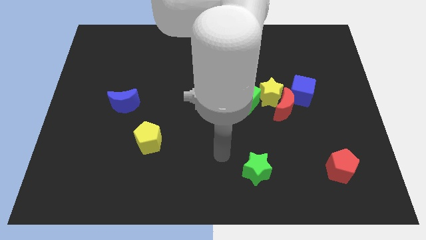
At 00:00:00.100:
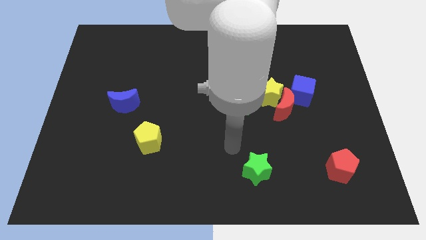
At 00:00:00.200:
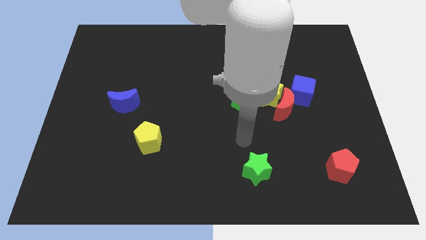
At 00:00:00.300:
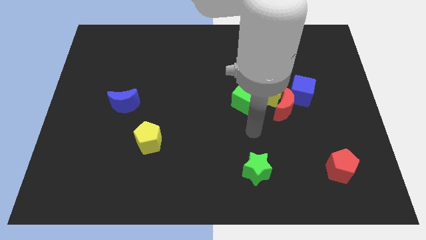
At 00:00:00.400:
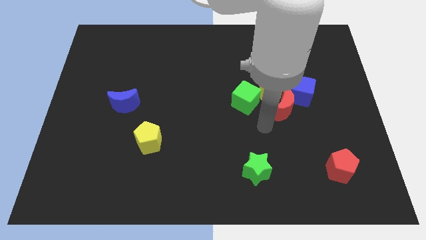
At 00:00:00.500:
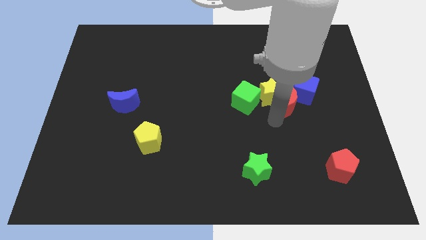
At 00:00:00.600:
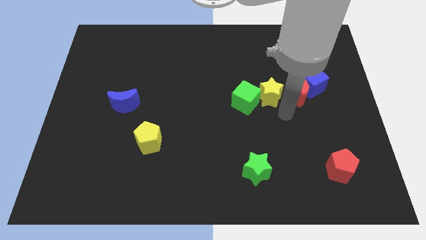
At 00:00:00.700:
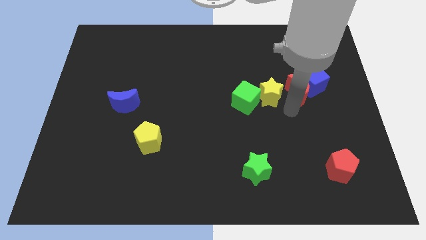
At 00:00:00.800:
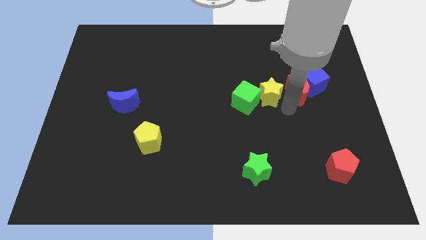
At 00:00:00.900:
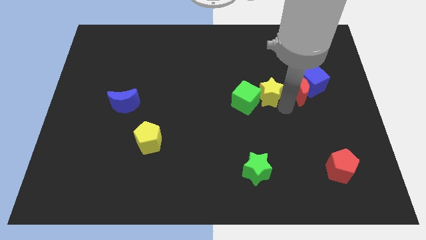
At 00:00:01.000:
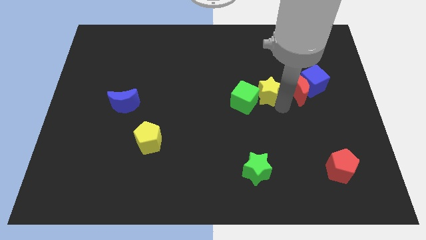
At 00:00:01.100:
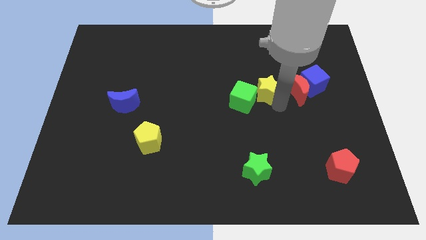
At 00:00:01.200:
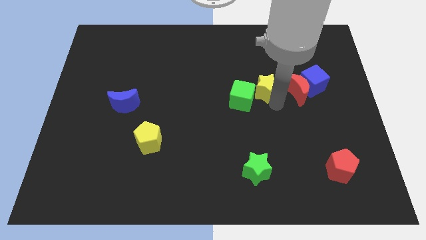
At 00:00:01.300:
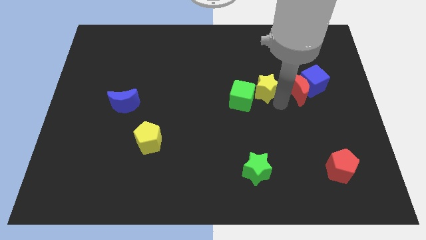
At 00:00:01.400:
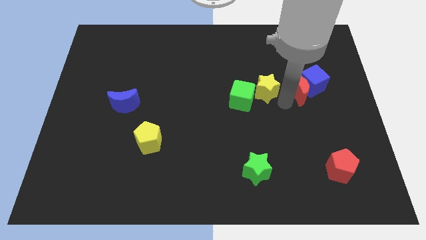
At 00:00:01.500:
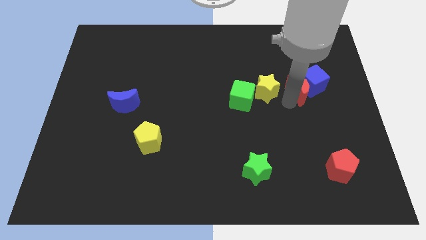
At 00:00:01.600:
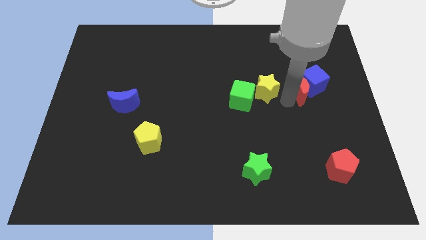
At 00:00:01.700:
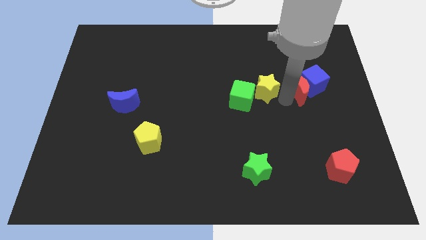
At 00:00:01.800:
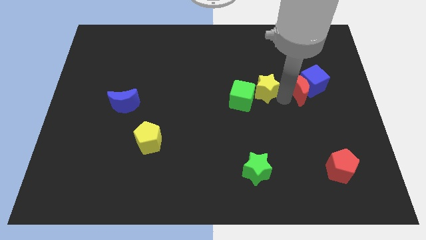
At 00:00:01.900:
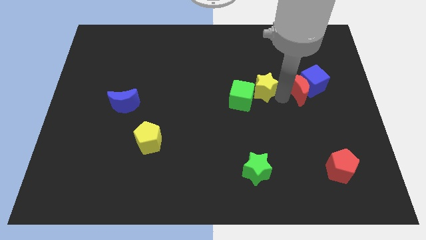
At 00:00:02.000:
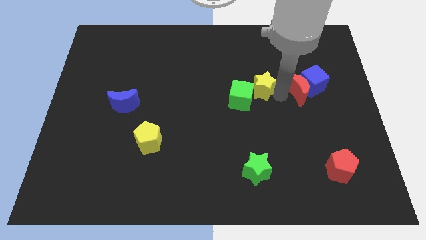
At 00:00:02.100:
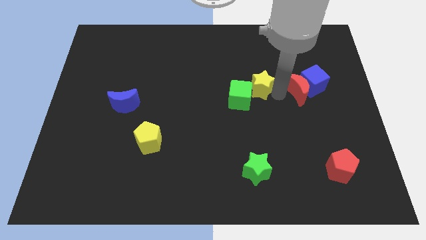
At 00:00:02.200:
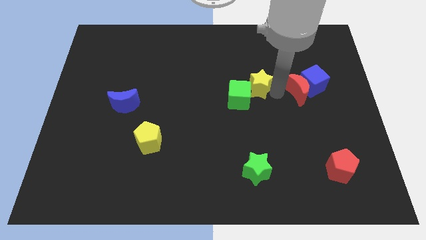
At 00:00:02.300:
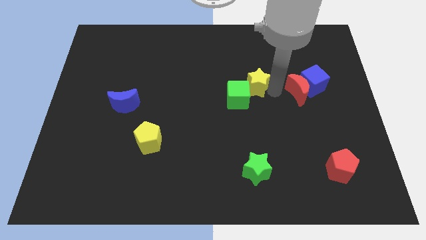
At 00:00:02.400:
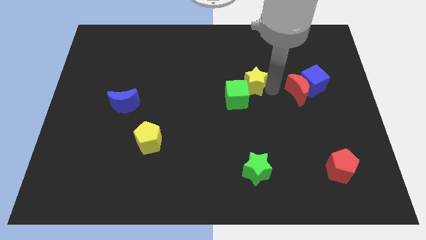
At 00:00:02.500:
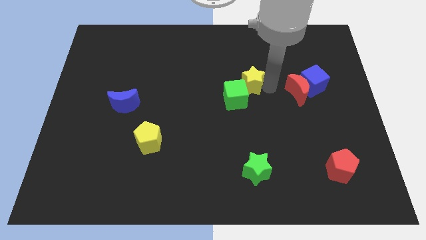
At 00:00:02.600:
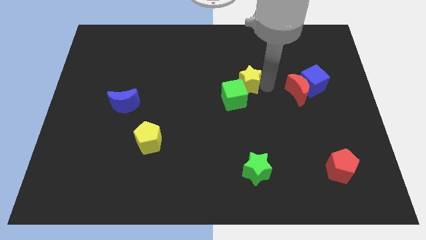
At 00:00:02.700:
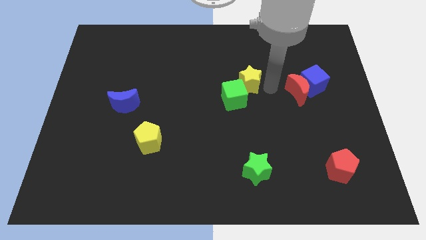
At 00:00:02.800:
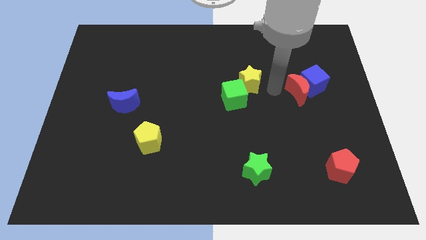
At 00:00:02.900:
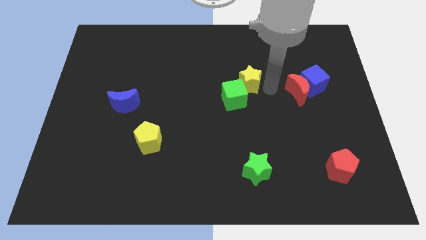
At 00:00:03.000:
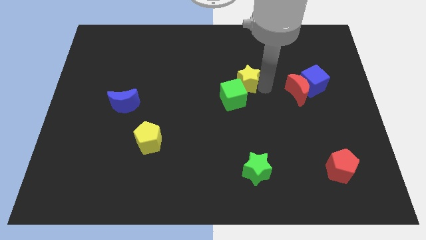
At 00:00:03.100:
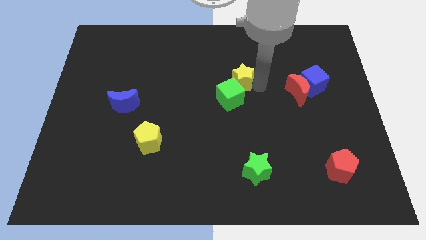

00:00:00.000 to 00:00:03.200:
move the yellow star away from the clump

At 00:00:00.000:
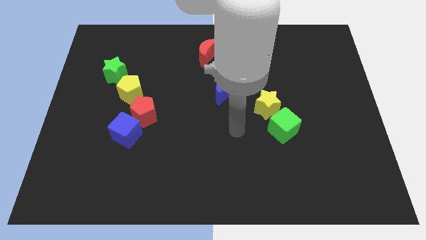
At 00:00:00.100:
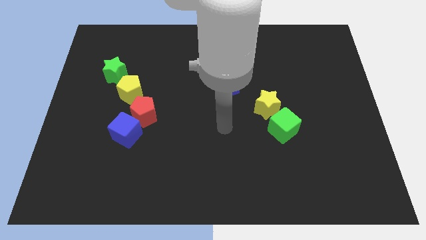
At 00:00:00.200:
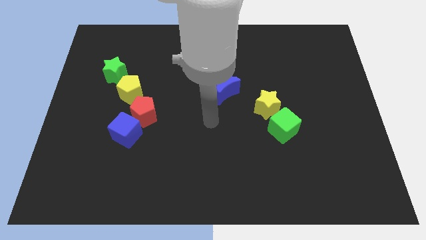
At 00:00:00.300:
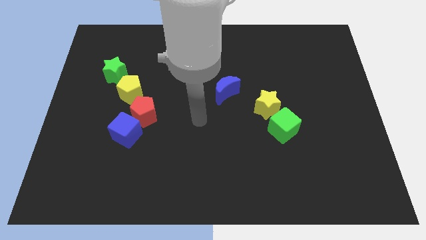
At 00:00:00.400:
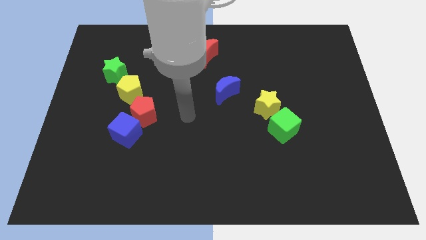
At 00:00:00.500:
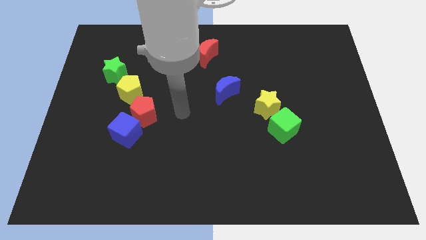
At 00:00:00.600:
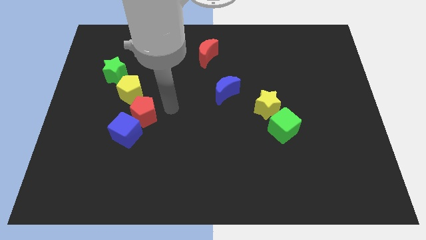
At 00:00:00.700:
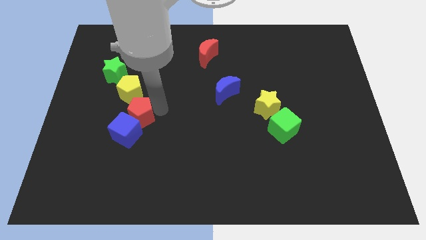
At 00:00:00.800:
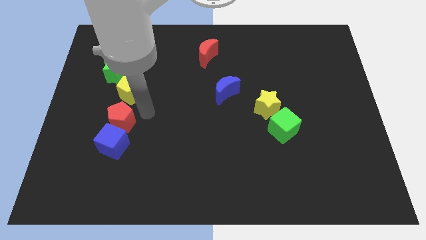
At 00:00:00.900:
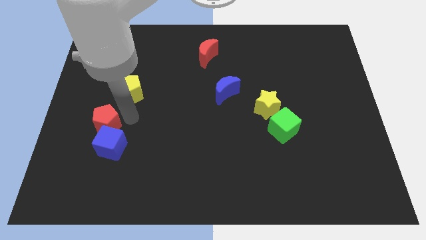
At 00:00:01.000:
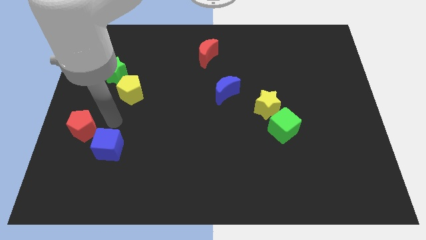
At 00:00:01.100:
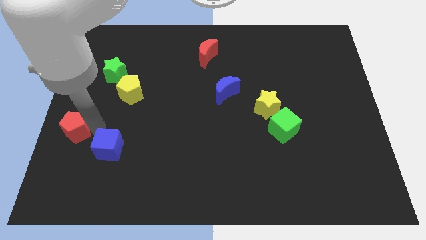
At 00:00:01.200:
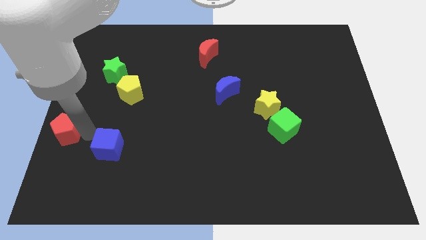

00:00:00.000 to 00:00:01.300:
separate the blue cube from the red pentagon

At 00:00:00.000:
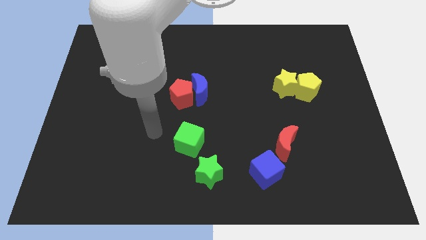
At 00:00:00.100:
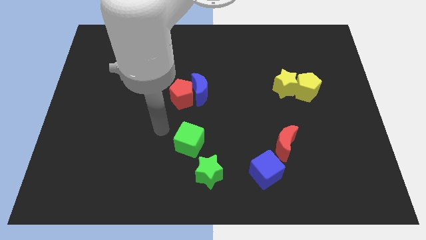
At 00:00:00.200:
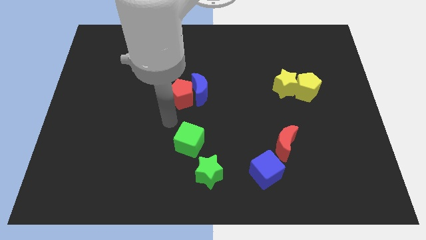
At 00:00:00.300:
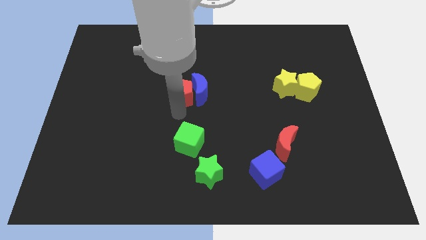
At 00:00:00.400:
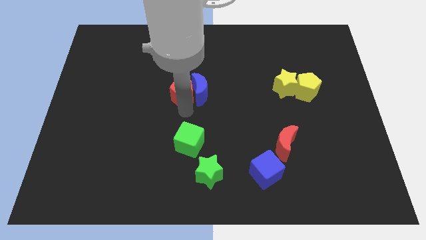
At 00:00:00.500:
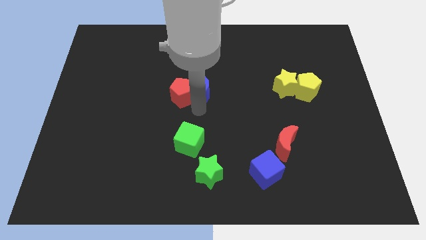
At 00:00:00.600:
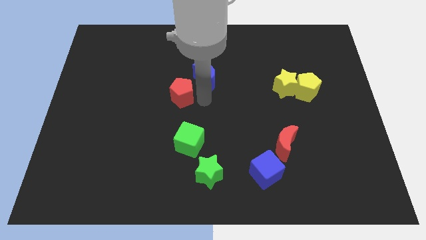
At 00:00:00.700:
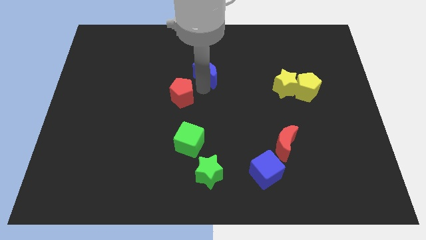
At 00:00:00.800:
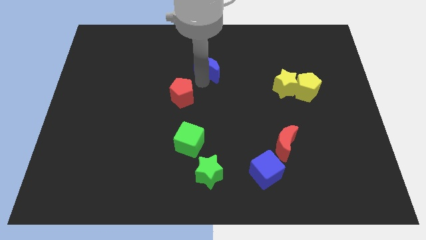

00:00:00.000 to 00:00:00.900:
move the red pentagon away from the blue moon

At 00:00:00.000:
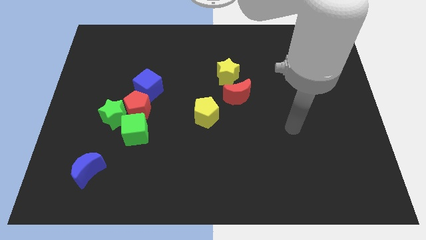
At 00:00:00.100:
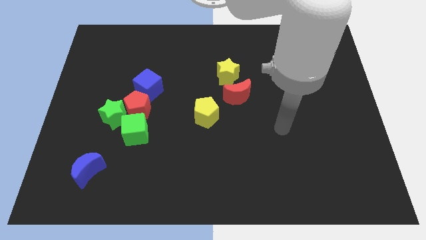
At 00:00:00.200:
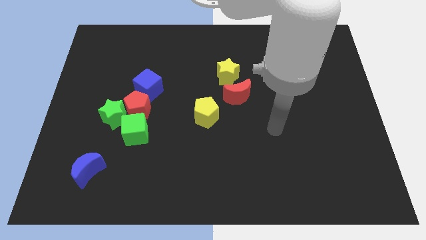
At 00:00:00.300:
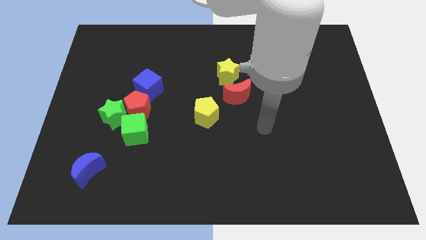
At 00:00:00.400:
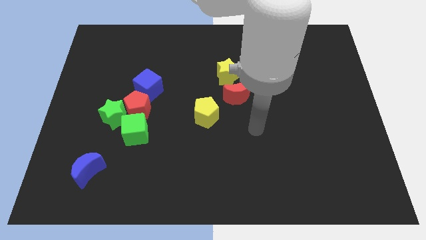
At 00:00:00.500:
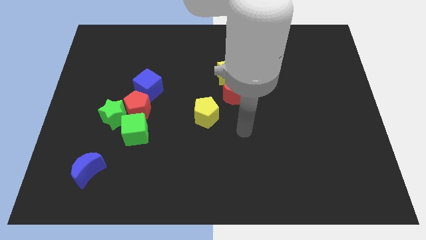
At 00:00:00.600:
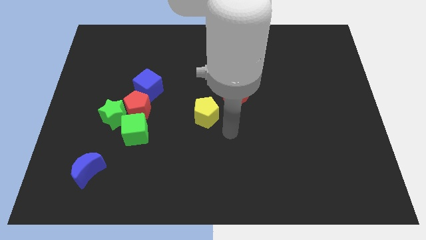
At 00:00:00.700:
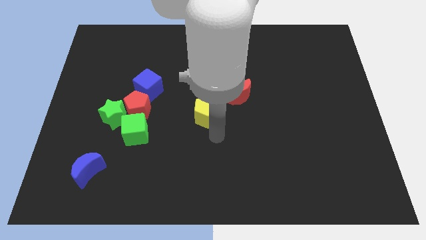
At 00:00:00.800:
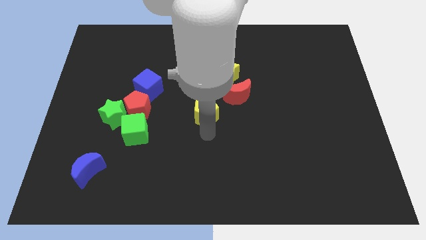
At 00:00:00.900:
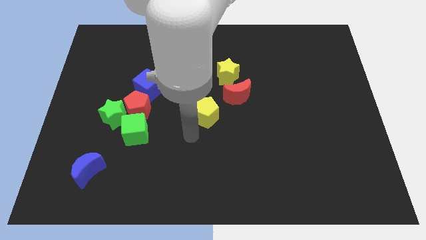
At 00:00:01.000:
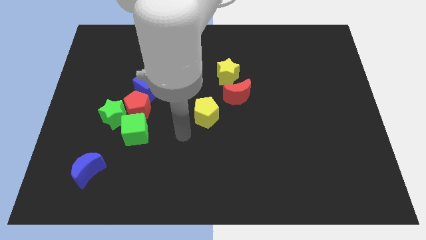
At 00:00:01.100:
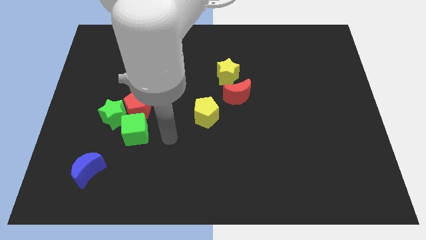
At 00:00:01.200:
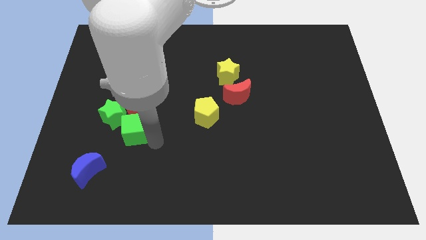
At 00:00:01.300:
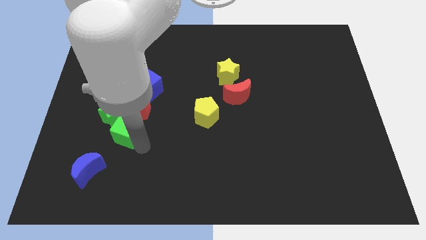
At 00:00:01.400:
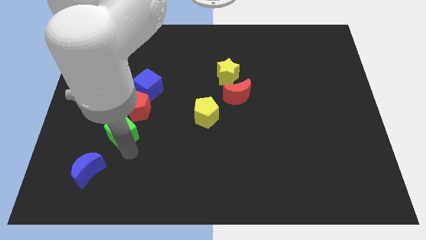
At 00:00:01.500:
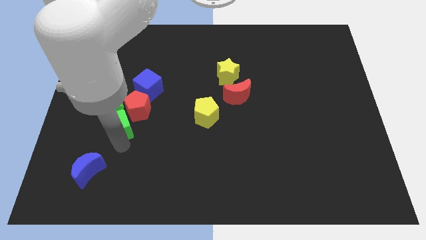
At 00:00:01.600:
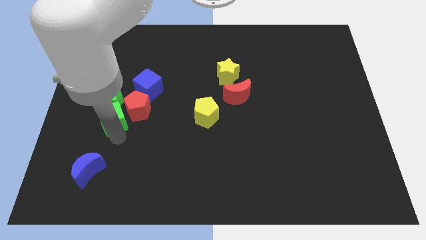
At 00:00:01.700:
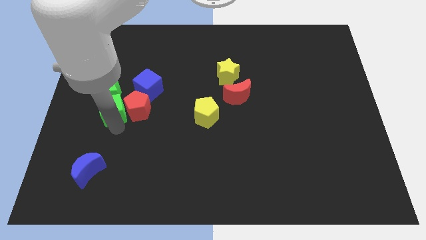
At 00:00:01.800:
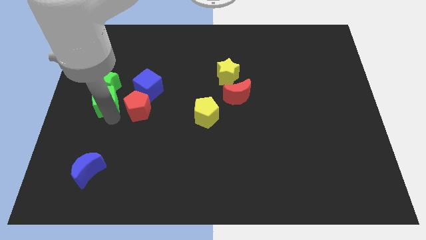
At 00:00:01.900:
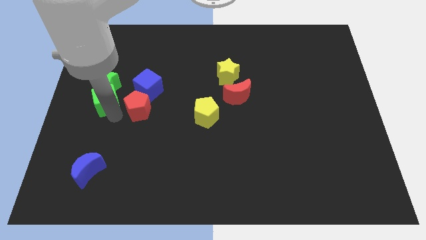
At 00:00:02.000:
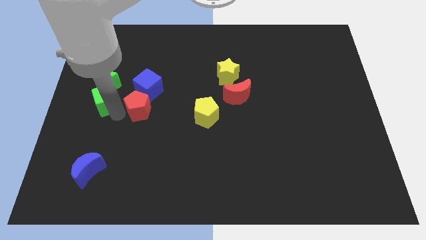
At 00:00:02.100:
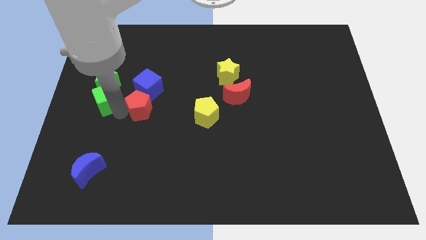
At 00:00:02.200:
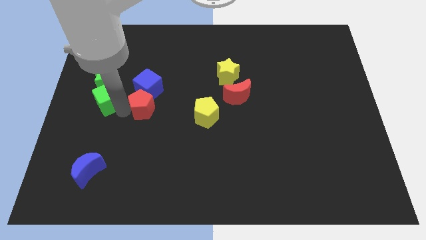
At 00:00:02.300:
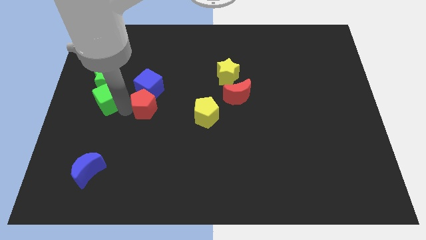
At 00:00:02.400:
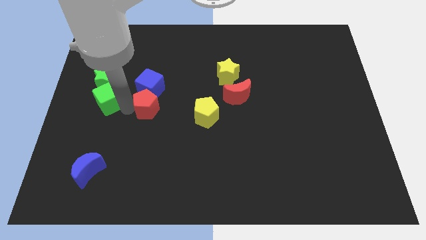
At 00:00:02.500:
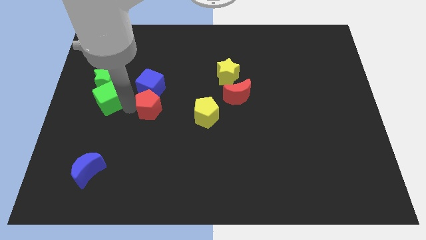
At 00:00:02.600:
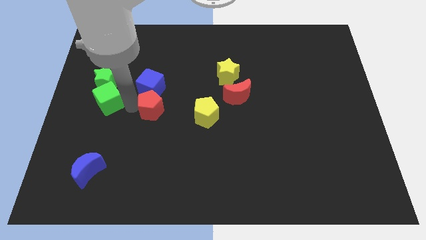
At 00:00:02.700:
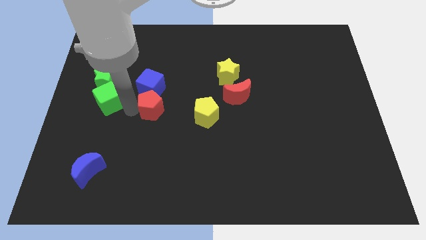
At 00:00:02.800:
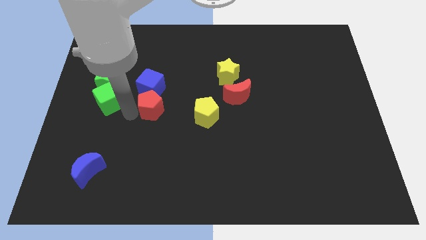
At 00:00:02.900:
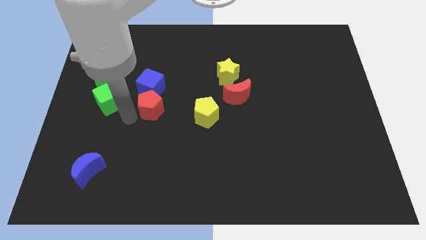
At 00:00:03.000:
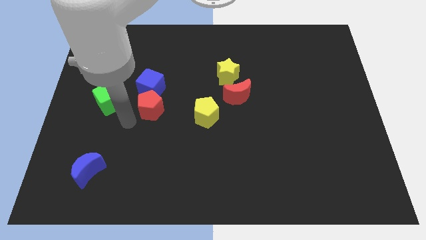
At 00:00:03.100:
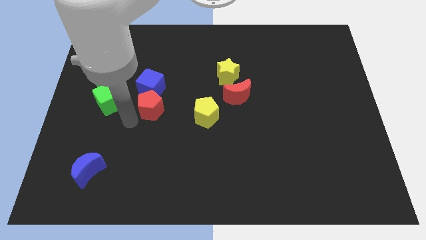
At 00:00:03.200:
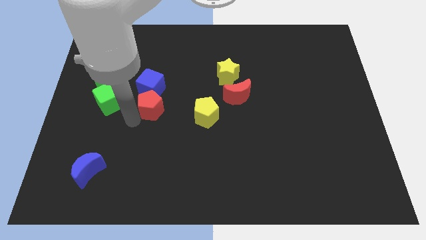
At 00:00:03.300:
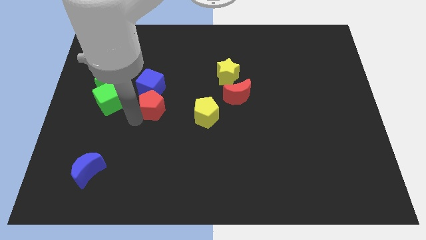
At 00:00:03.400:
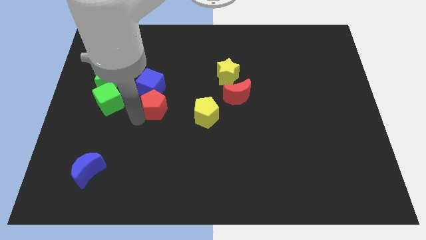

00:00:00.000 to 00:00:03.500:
separate the red pentagon from the group

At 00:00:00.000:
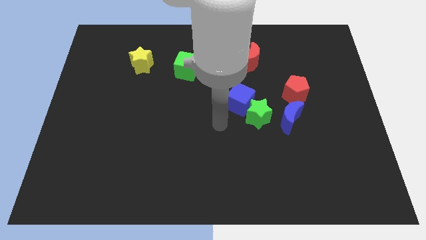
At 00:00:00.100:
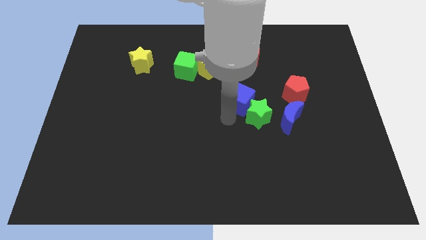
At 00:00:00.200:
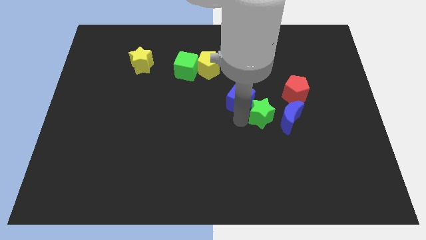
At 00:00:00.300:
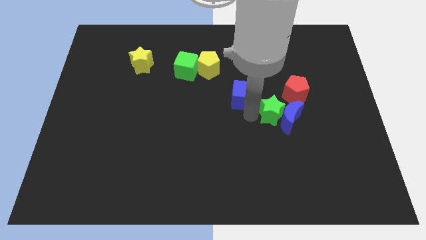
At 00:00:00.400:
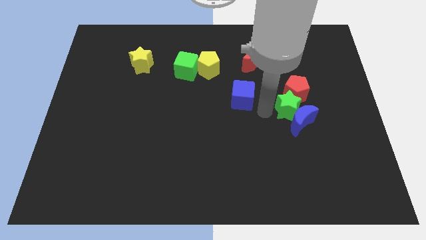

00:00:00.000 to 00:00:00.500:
separate the blue cube from the green star

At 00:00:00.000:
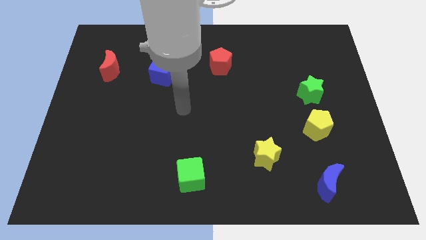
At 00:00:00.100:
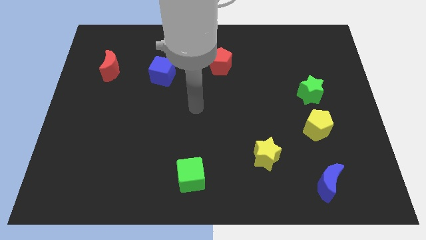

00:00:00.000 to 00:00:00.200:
separate the green star from the yellow pentagon
